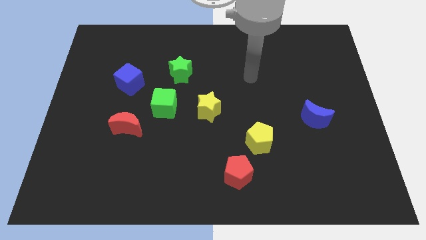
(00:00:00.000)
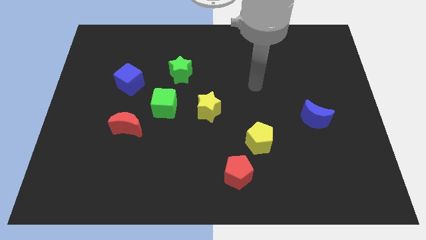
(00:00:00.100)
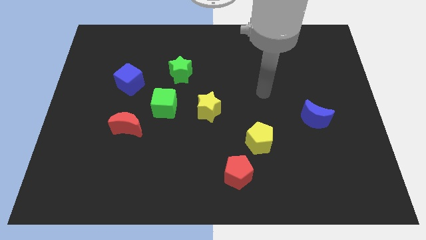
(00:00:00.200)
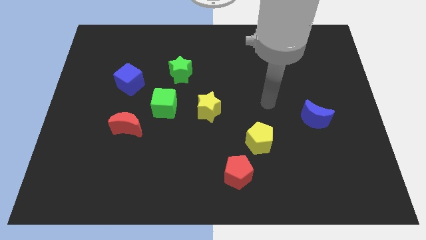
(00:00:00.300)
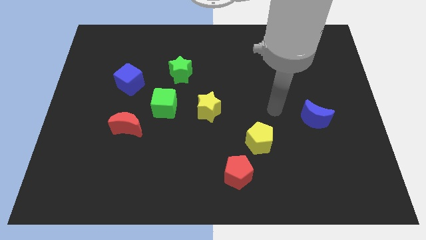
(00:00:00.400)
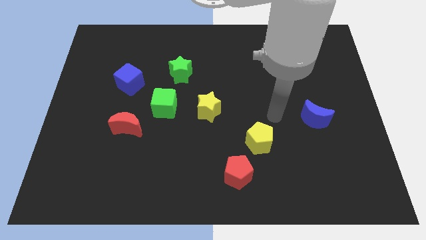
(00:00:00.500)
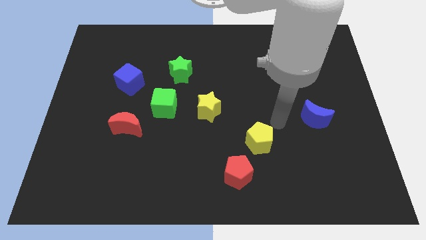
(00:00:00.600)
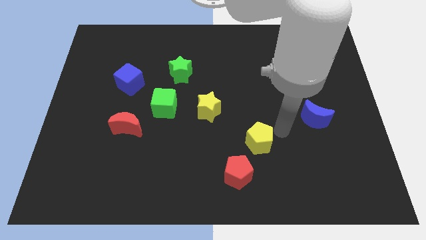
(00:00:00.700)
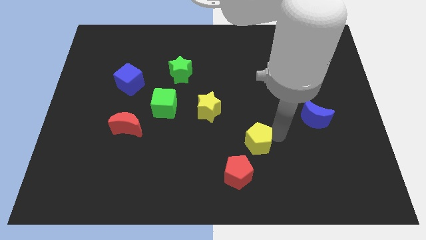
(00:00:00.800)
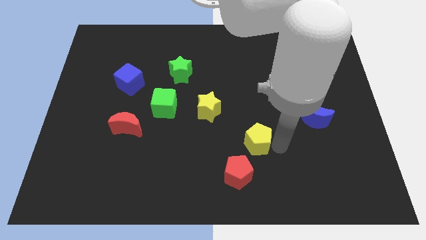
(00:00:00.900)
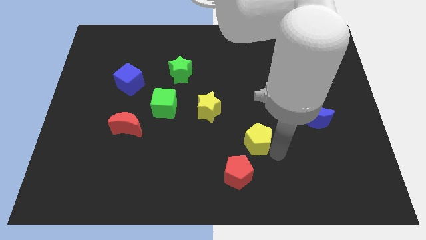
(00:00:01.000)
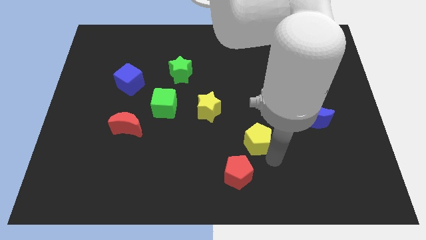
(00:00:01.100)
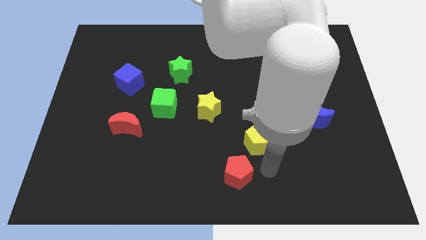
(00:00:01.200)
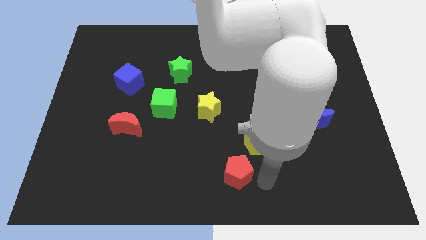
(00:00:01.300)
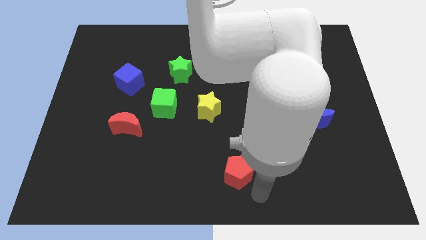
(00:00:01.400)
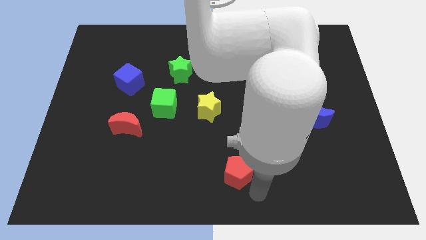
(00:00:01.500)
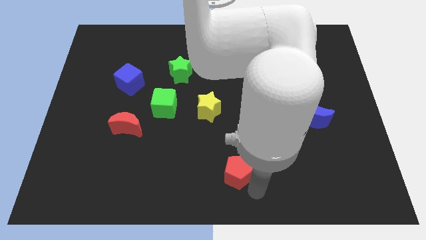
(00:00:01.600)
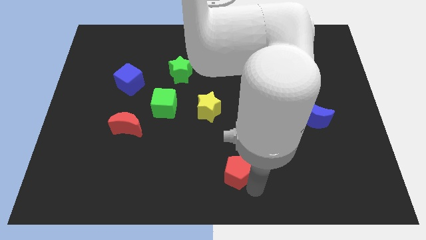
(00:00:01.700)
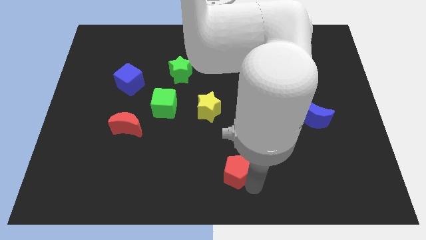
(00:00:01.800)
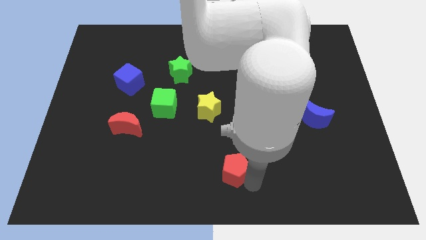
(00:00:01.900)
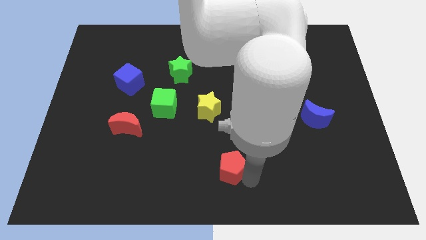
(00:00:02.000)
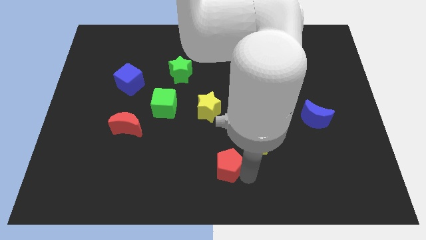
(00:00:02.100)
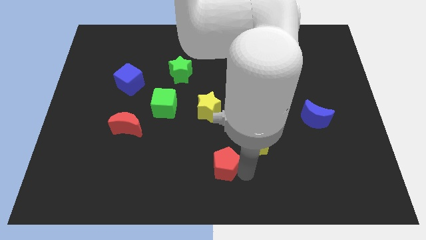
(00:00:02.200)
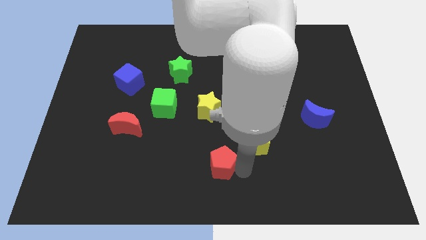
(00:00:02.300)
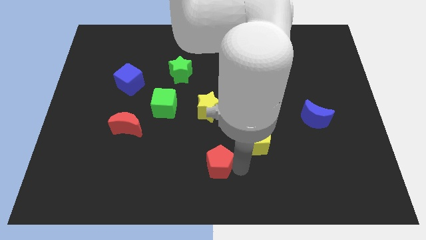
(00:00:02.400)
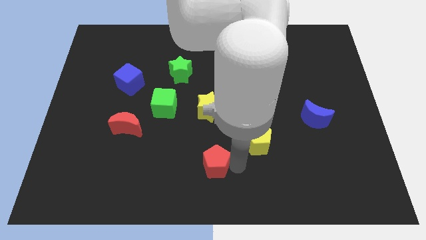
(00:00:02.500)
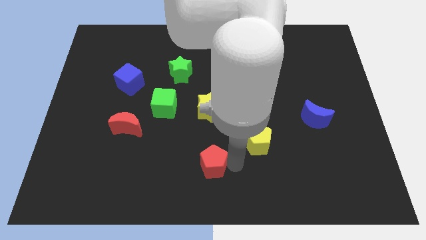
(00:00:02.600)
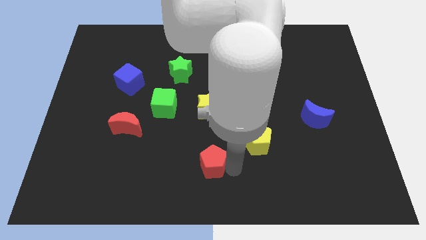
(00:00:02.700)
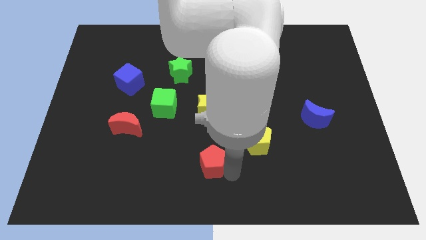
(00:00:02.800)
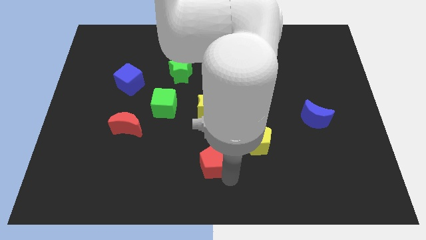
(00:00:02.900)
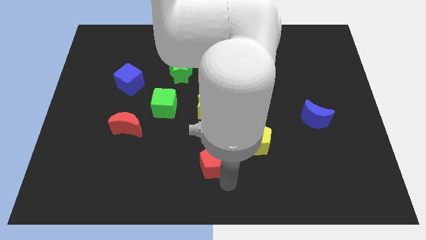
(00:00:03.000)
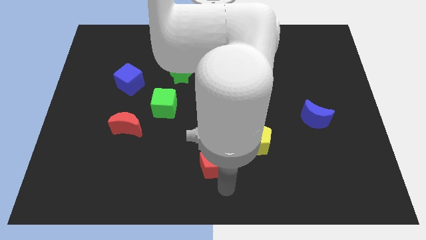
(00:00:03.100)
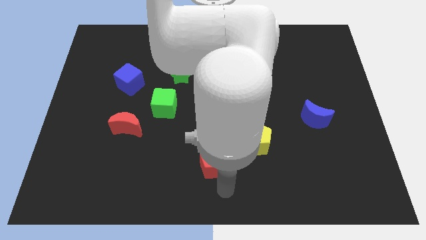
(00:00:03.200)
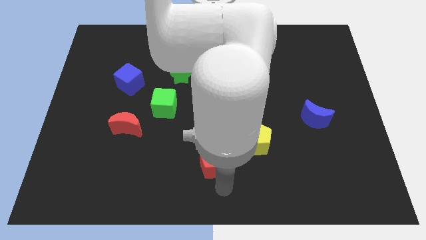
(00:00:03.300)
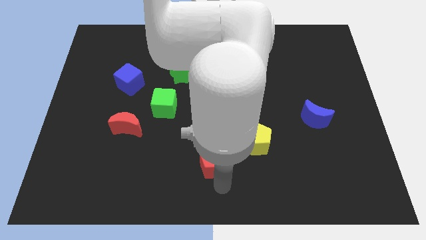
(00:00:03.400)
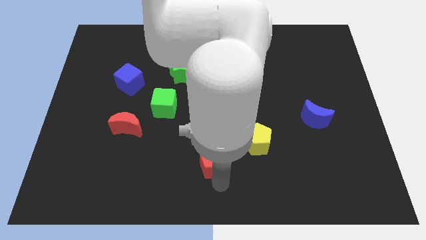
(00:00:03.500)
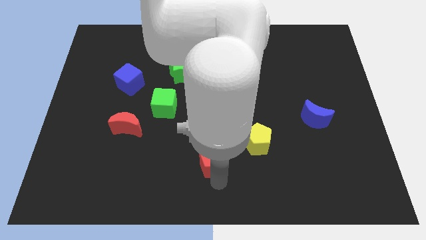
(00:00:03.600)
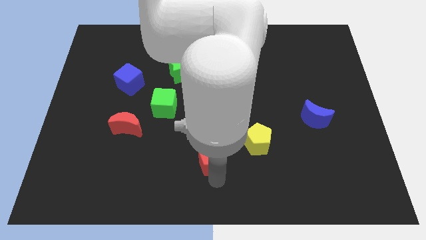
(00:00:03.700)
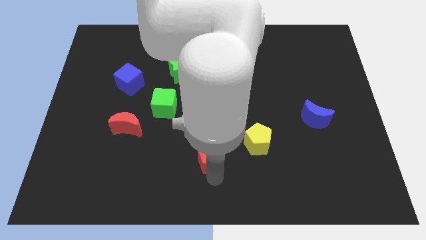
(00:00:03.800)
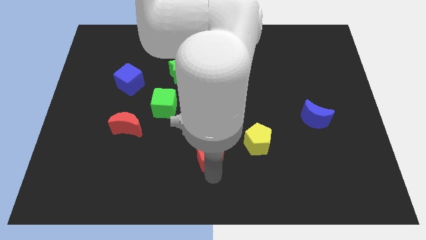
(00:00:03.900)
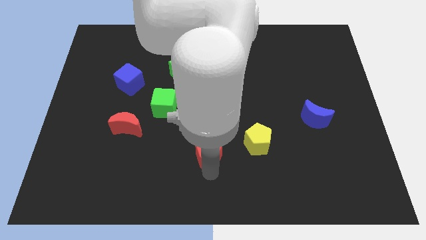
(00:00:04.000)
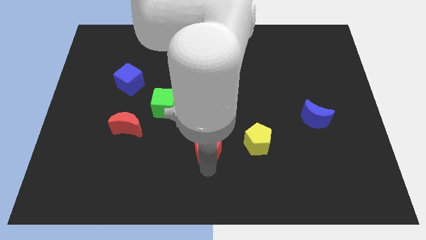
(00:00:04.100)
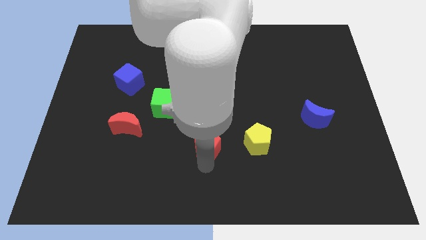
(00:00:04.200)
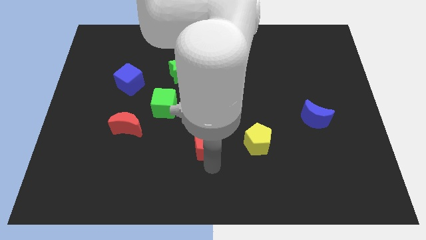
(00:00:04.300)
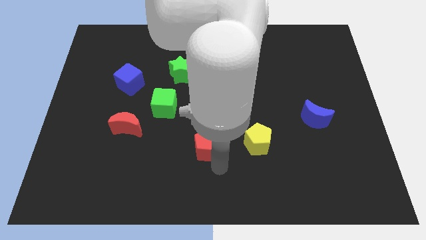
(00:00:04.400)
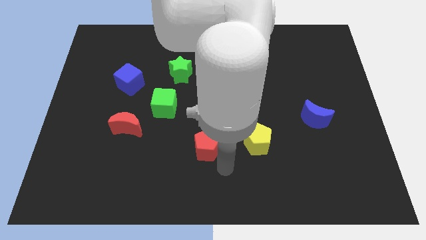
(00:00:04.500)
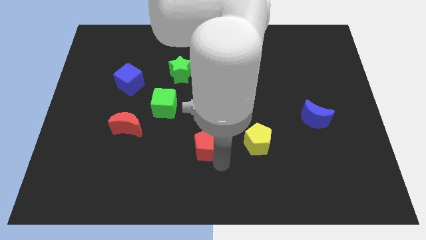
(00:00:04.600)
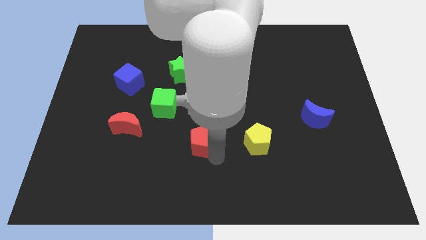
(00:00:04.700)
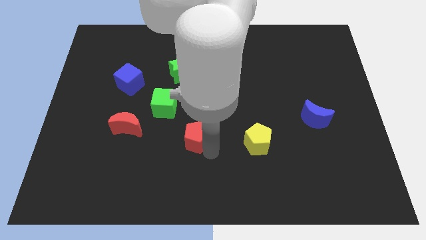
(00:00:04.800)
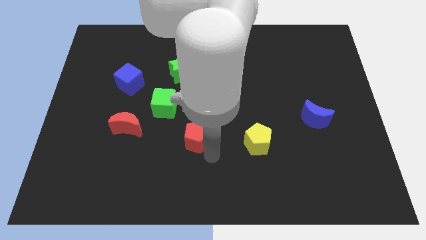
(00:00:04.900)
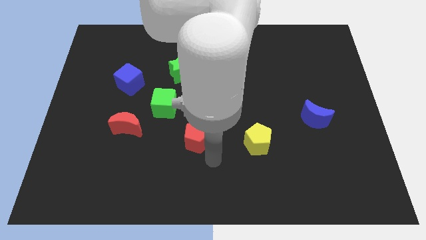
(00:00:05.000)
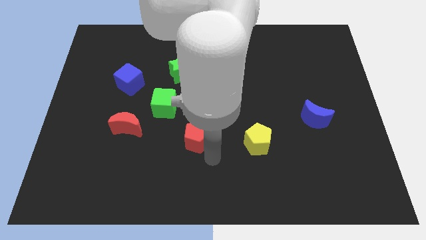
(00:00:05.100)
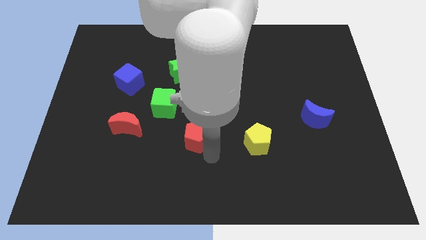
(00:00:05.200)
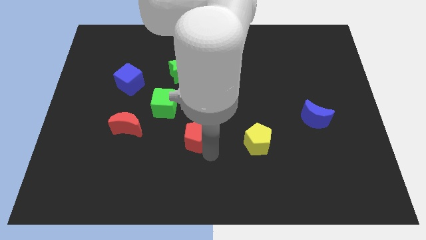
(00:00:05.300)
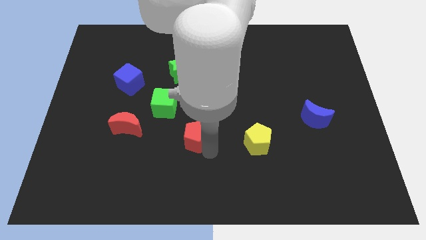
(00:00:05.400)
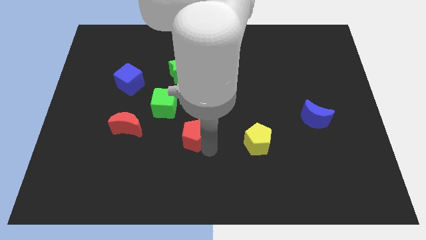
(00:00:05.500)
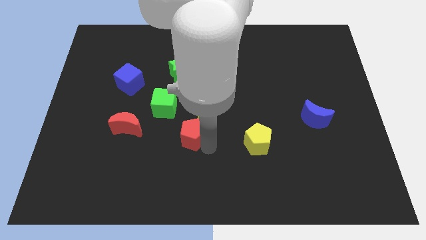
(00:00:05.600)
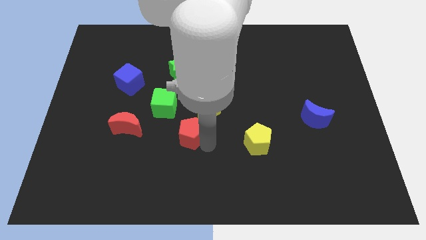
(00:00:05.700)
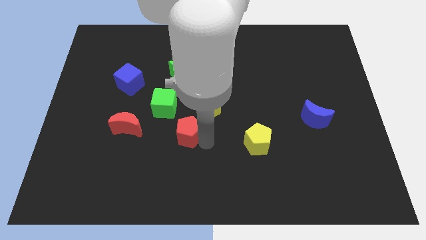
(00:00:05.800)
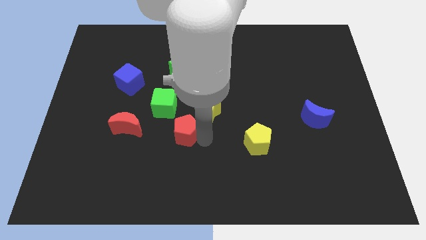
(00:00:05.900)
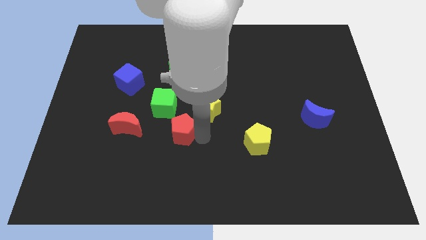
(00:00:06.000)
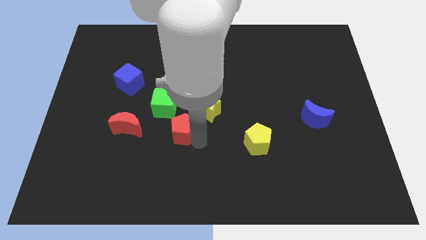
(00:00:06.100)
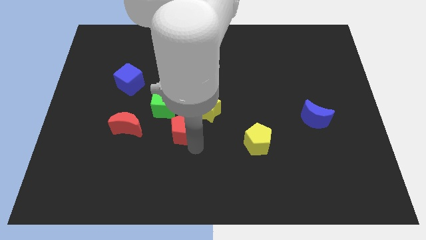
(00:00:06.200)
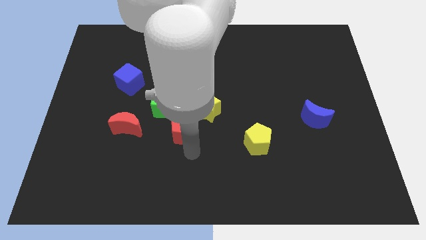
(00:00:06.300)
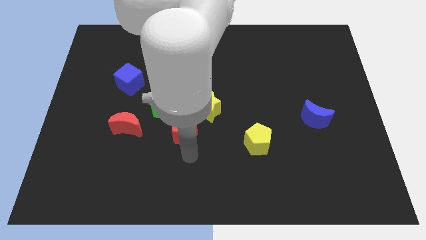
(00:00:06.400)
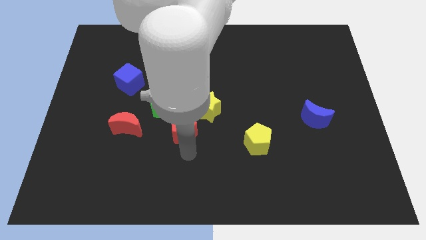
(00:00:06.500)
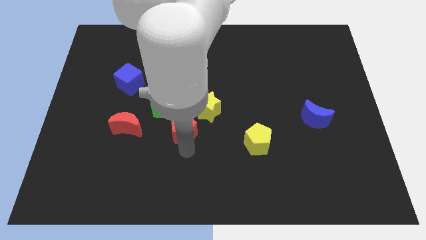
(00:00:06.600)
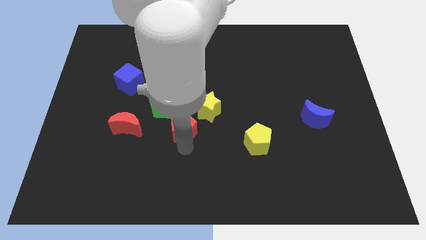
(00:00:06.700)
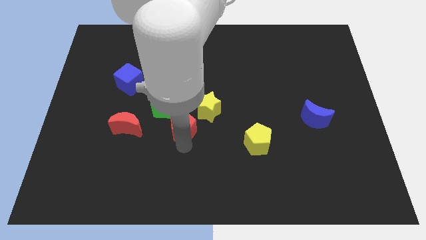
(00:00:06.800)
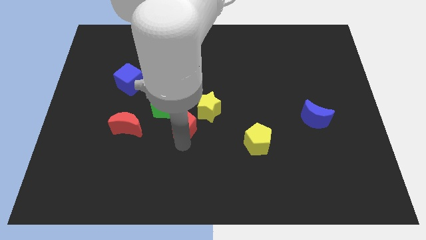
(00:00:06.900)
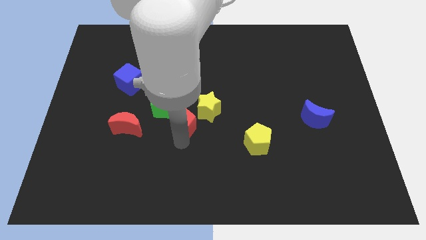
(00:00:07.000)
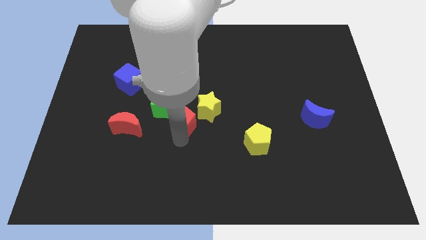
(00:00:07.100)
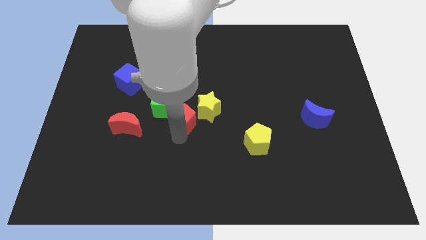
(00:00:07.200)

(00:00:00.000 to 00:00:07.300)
put the red pentagon towards the green cube
